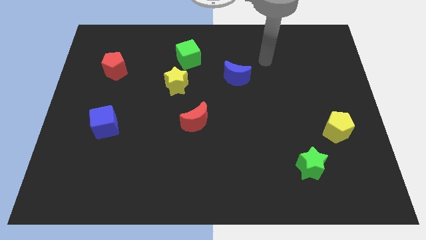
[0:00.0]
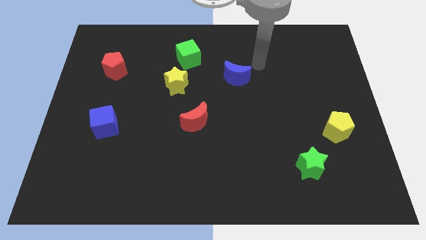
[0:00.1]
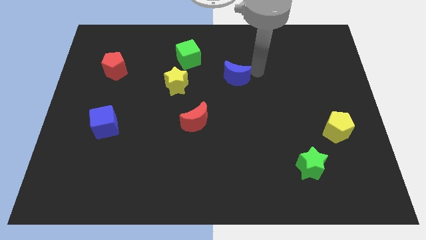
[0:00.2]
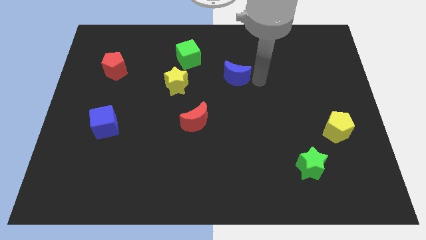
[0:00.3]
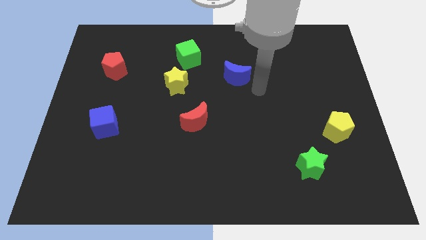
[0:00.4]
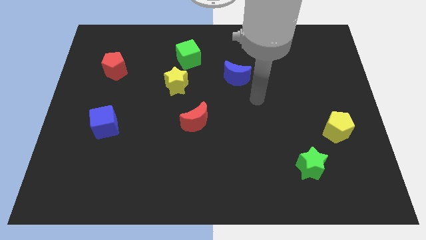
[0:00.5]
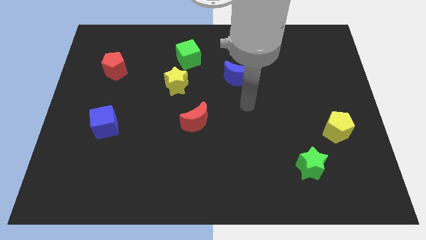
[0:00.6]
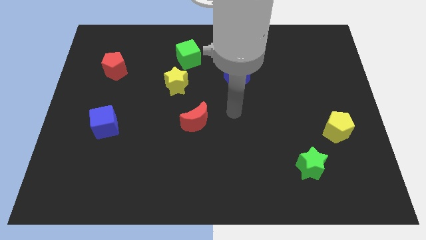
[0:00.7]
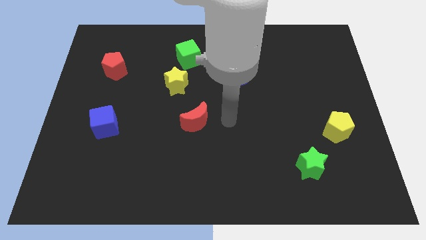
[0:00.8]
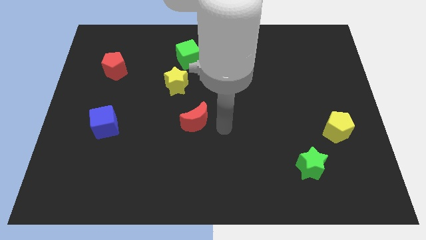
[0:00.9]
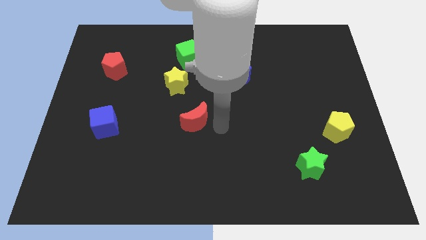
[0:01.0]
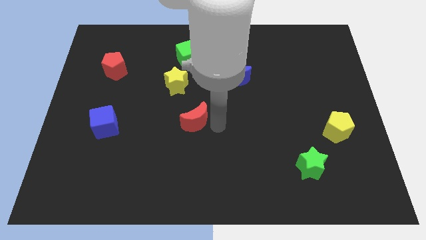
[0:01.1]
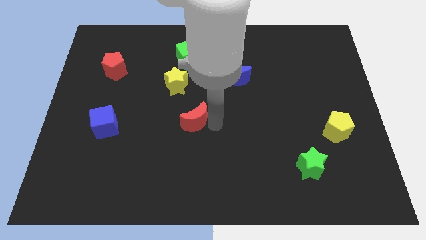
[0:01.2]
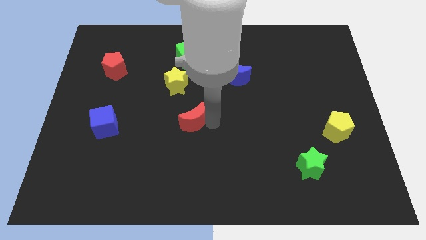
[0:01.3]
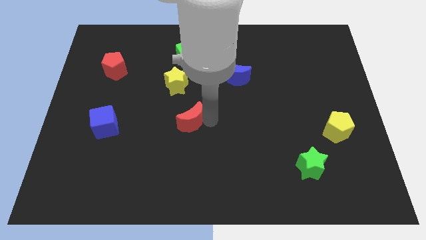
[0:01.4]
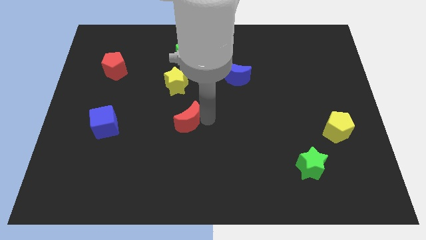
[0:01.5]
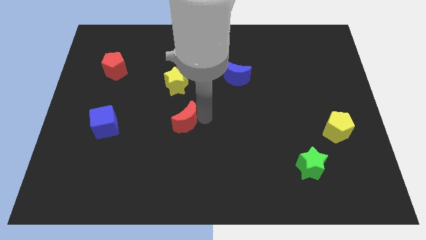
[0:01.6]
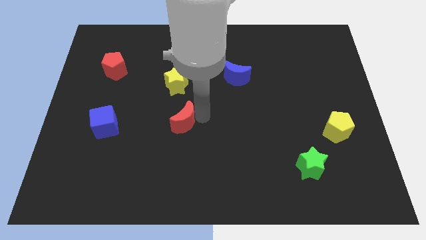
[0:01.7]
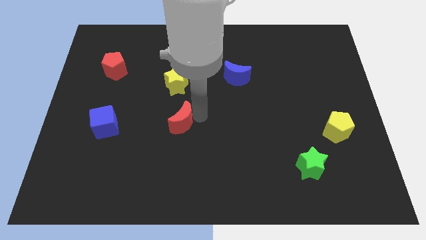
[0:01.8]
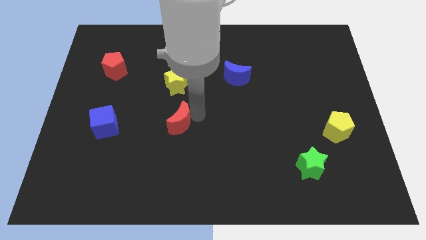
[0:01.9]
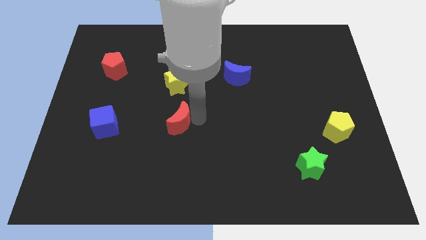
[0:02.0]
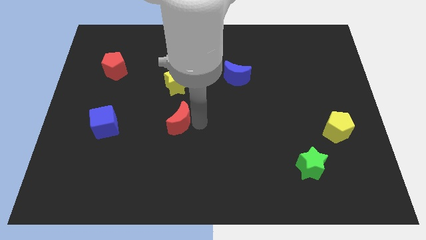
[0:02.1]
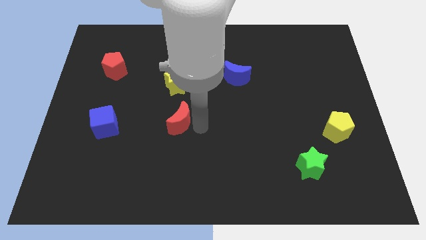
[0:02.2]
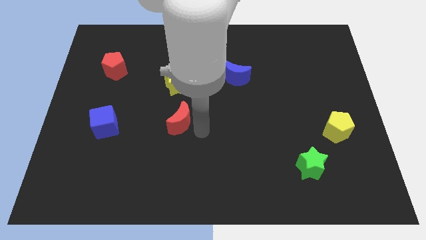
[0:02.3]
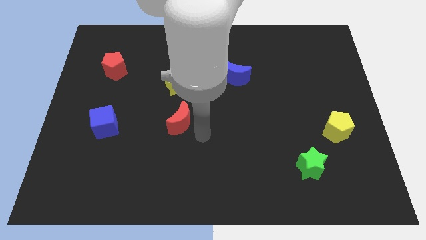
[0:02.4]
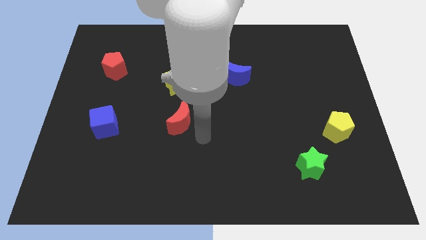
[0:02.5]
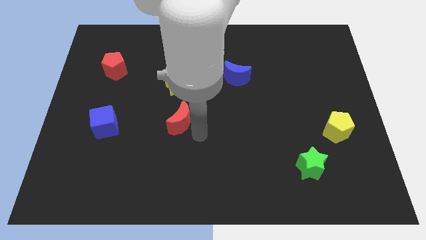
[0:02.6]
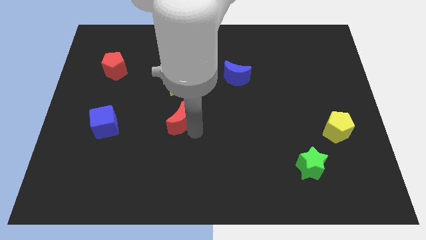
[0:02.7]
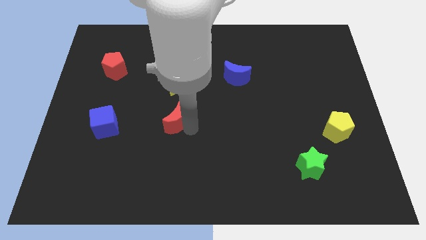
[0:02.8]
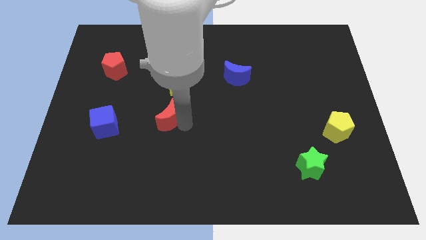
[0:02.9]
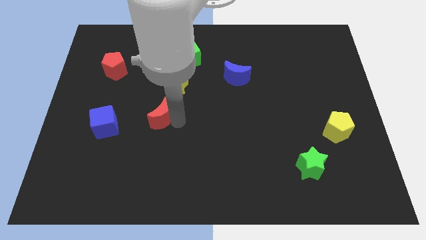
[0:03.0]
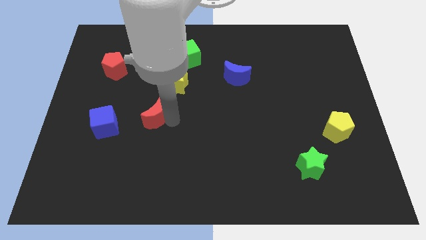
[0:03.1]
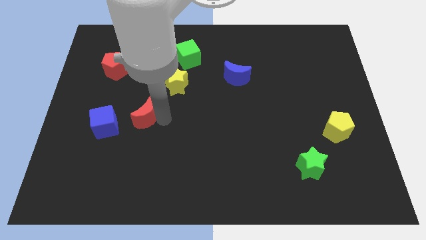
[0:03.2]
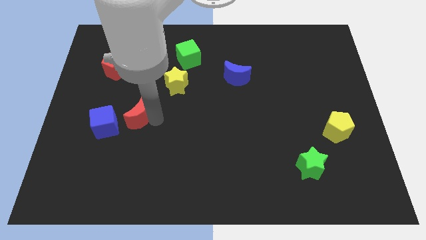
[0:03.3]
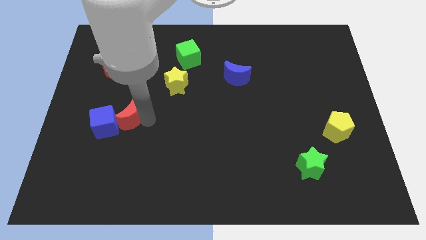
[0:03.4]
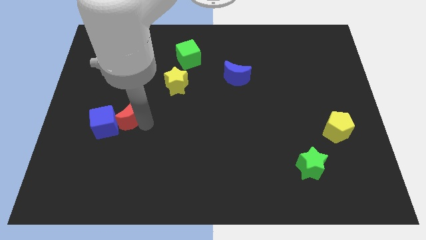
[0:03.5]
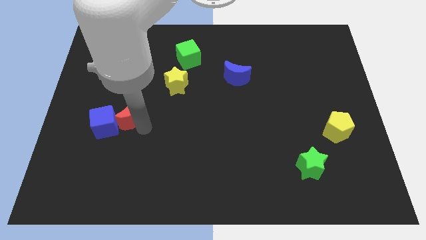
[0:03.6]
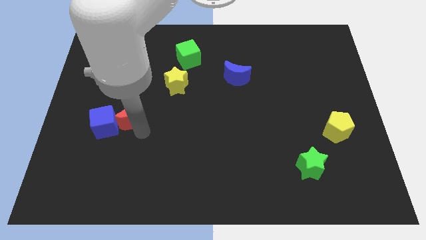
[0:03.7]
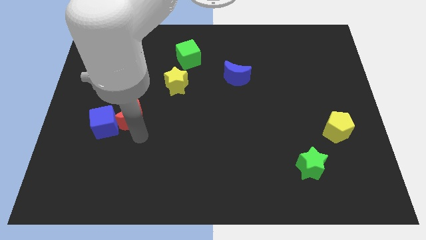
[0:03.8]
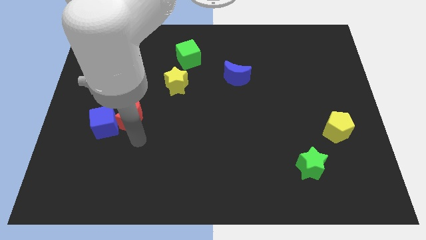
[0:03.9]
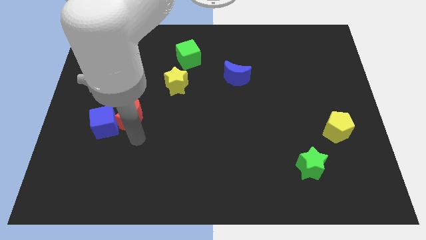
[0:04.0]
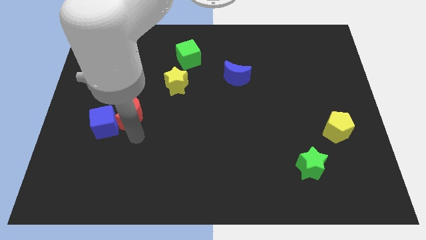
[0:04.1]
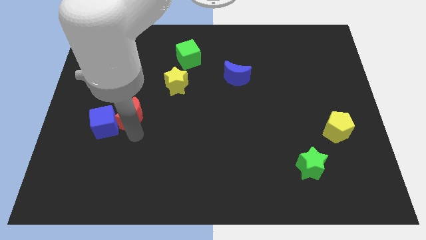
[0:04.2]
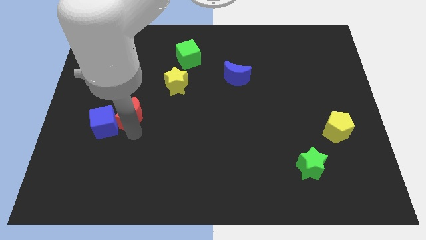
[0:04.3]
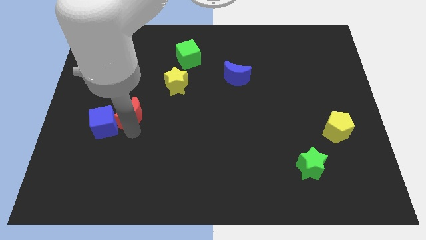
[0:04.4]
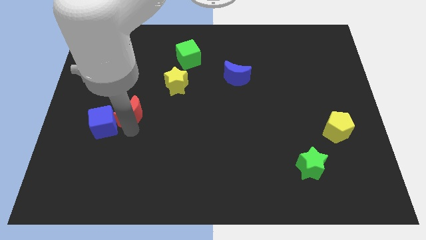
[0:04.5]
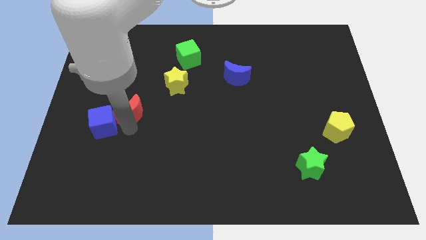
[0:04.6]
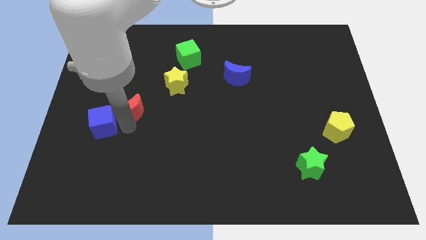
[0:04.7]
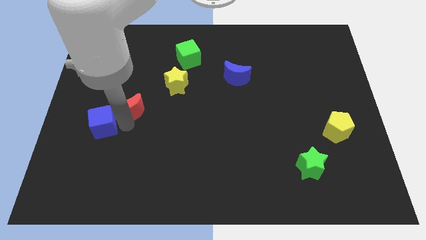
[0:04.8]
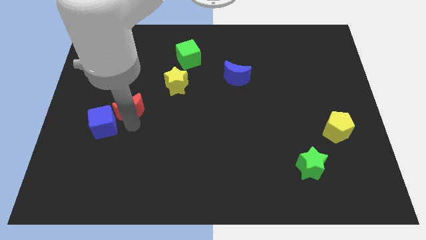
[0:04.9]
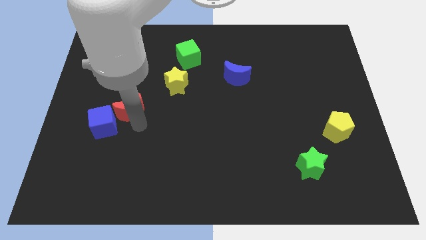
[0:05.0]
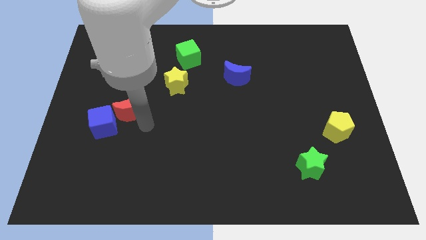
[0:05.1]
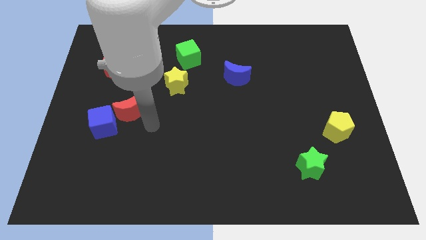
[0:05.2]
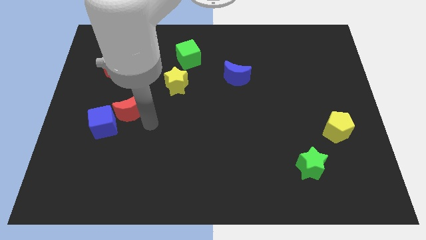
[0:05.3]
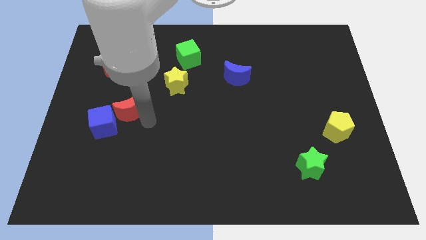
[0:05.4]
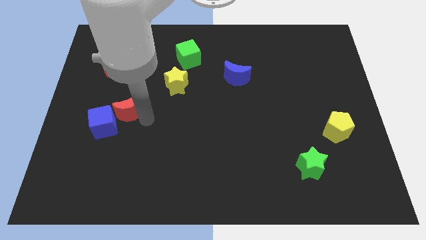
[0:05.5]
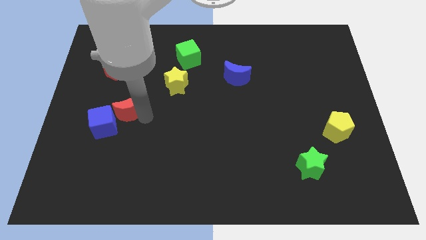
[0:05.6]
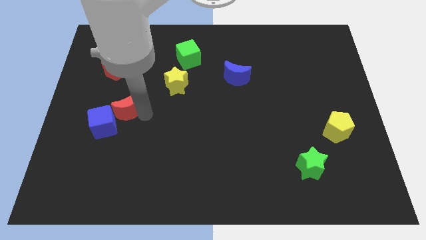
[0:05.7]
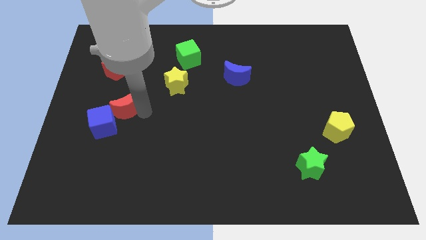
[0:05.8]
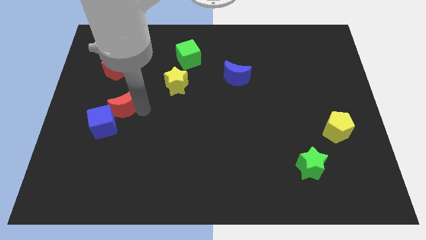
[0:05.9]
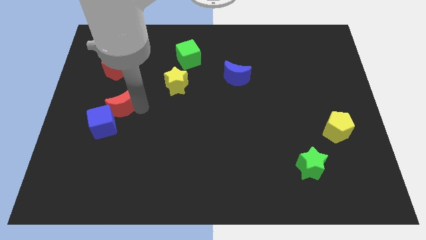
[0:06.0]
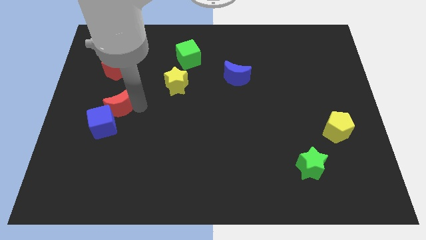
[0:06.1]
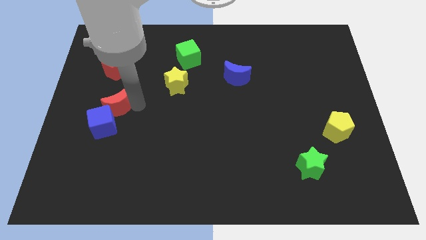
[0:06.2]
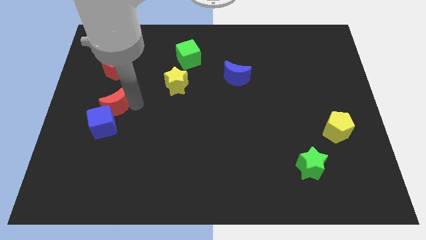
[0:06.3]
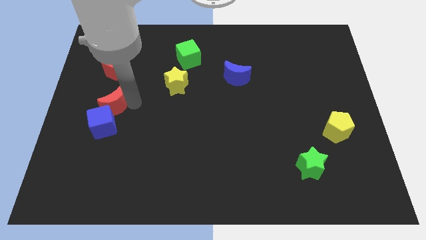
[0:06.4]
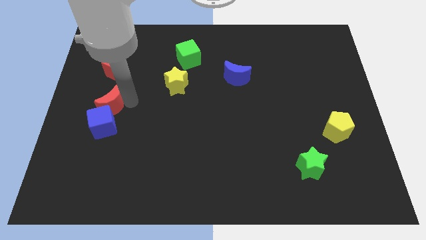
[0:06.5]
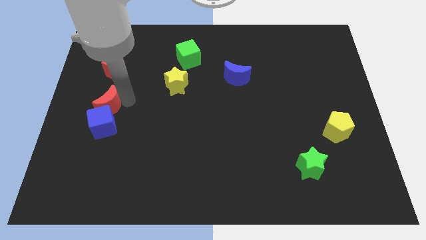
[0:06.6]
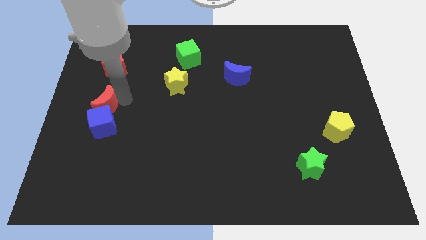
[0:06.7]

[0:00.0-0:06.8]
put the red moon to the left side
